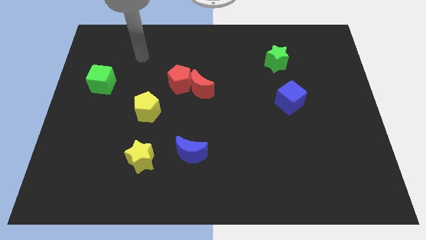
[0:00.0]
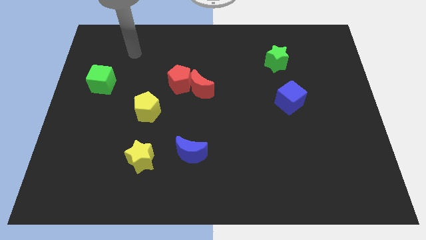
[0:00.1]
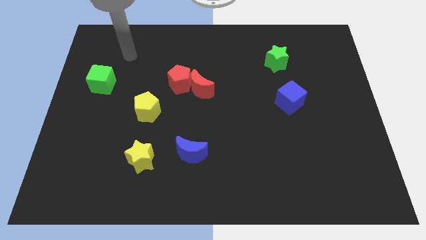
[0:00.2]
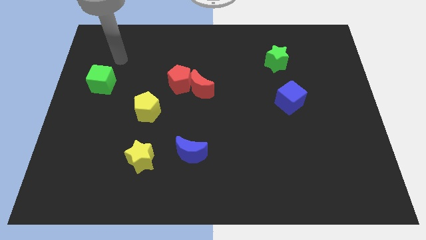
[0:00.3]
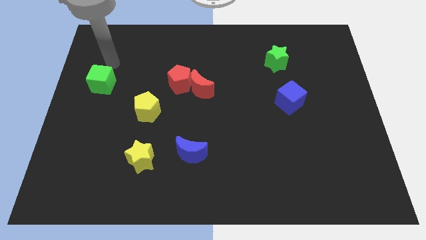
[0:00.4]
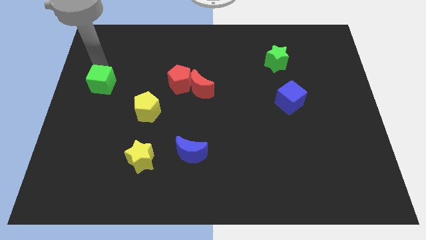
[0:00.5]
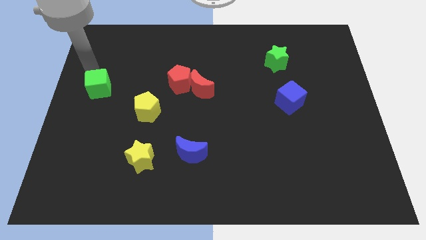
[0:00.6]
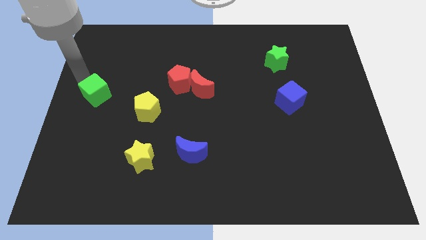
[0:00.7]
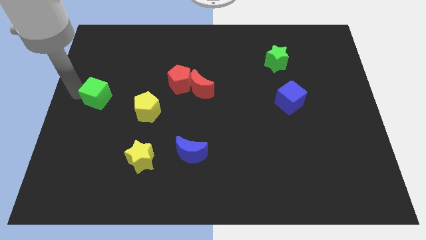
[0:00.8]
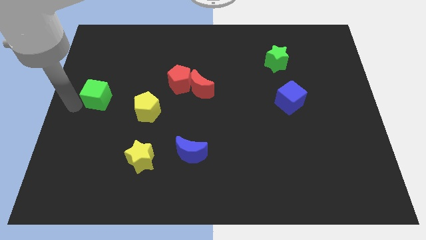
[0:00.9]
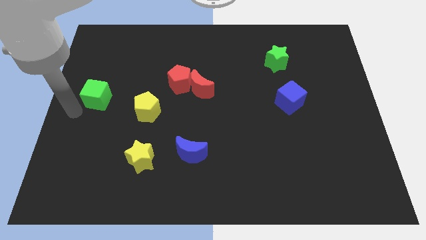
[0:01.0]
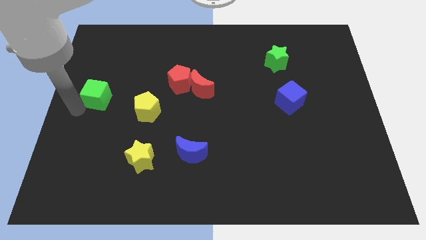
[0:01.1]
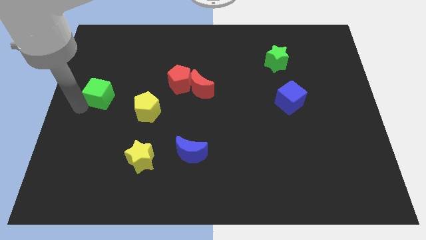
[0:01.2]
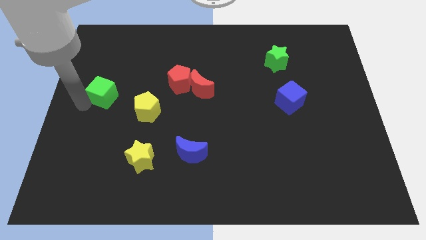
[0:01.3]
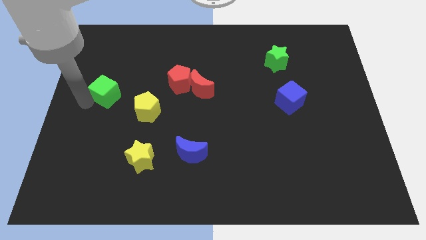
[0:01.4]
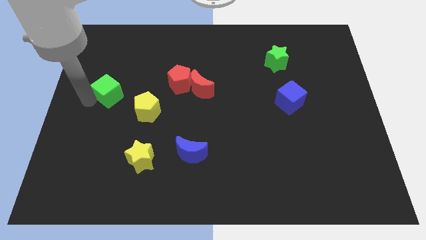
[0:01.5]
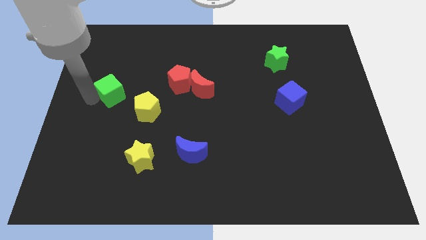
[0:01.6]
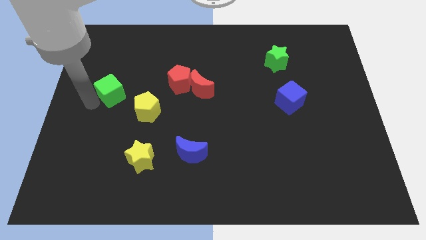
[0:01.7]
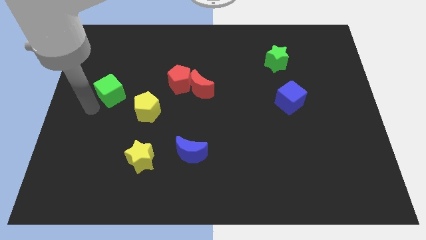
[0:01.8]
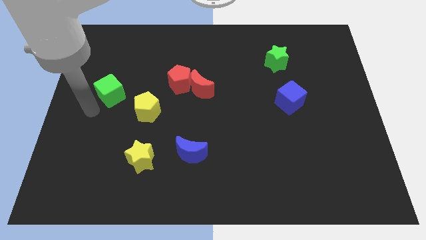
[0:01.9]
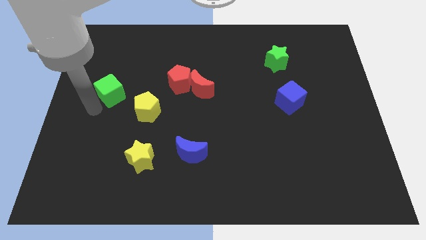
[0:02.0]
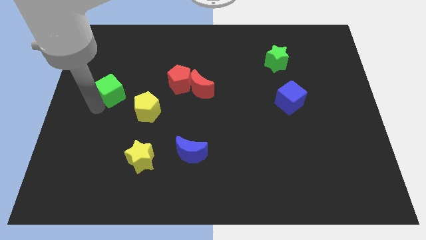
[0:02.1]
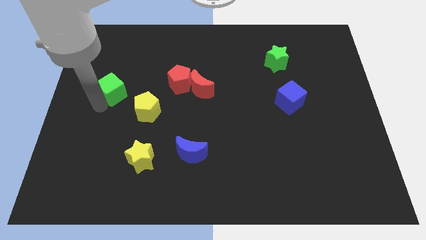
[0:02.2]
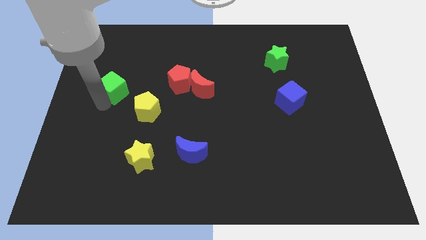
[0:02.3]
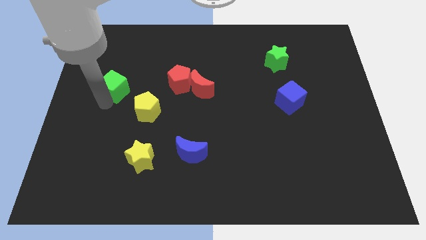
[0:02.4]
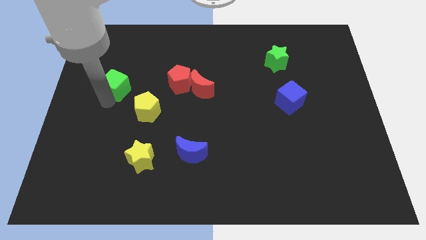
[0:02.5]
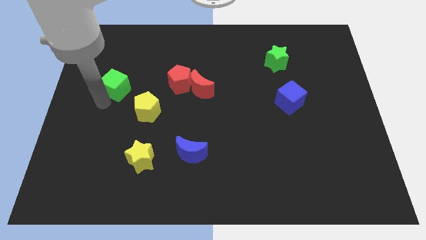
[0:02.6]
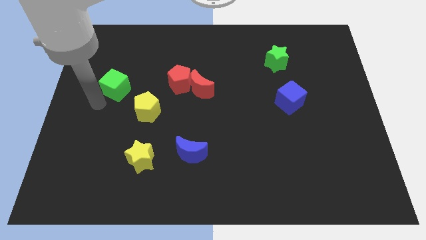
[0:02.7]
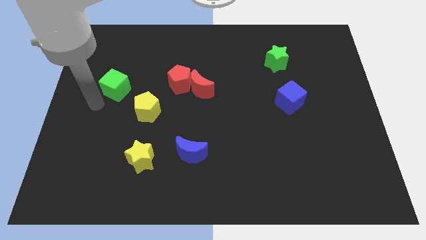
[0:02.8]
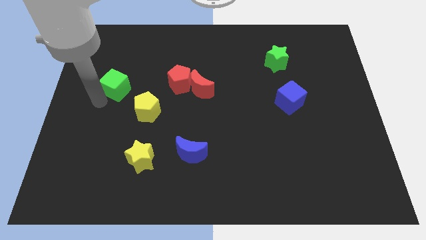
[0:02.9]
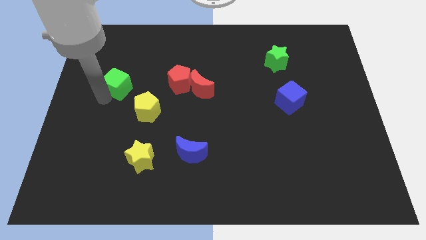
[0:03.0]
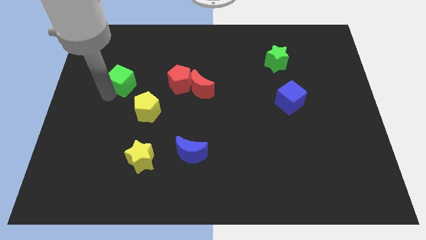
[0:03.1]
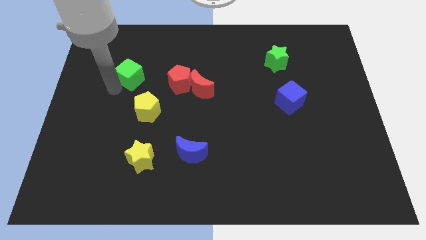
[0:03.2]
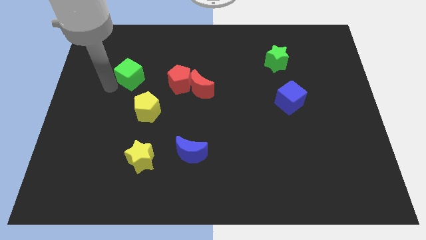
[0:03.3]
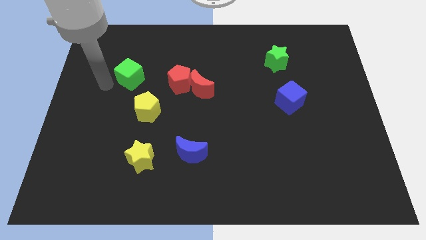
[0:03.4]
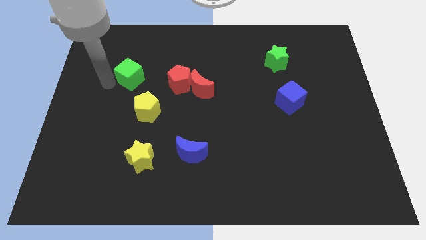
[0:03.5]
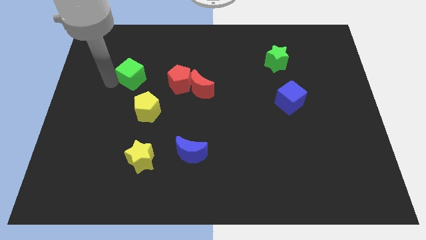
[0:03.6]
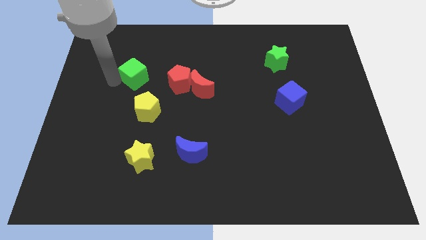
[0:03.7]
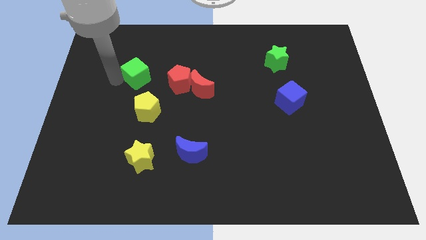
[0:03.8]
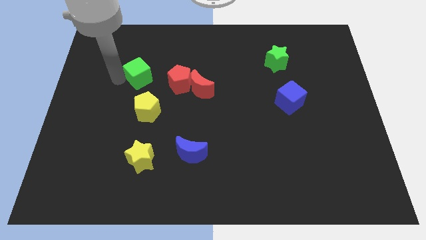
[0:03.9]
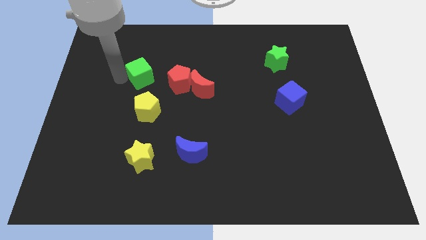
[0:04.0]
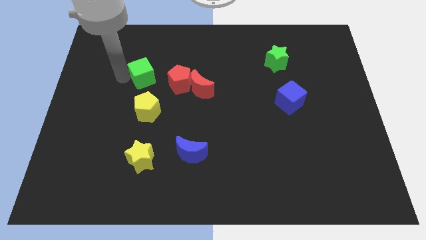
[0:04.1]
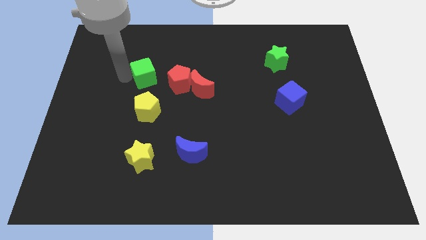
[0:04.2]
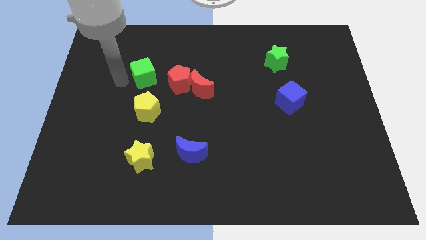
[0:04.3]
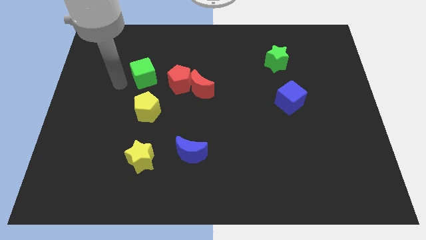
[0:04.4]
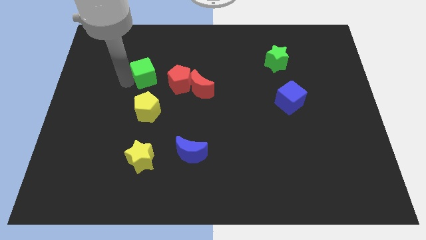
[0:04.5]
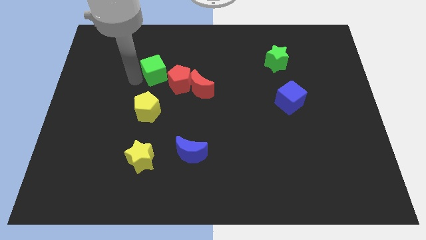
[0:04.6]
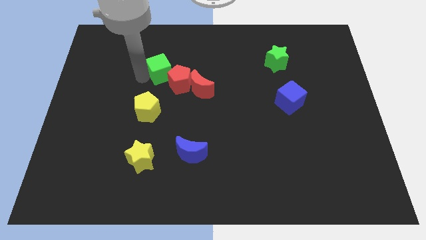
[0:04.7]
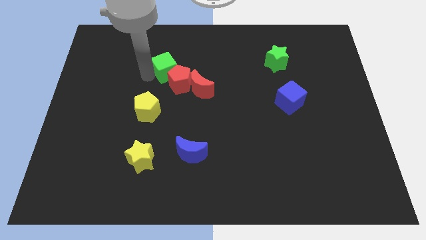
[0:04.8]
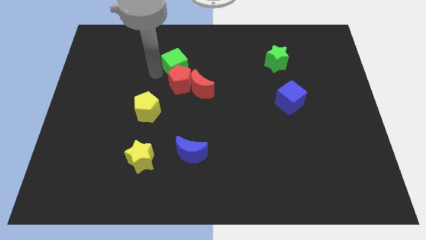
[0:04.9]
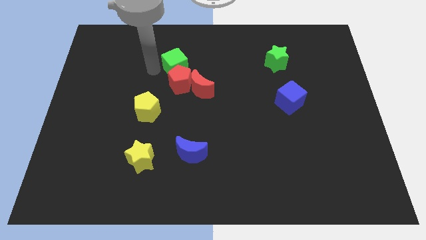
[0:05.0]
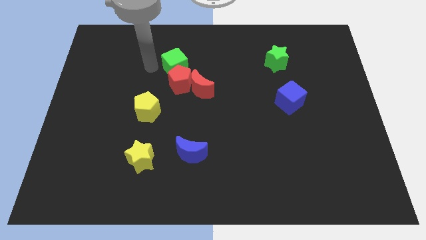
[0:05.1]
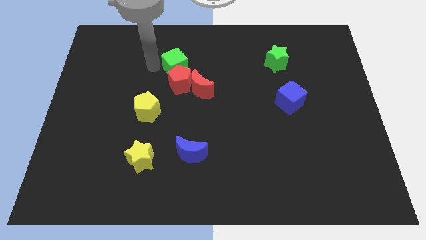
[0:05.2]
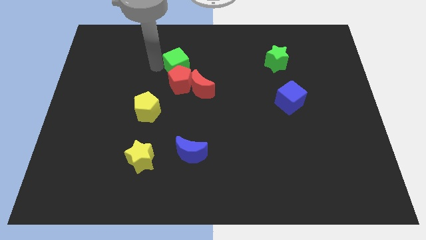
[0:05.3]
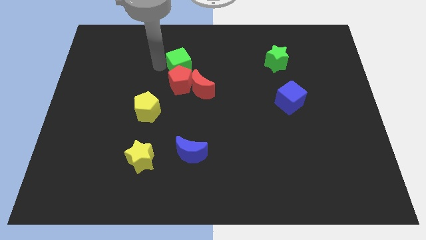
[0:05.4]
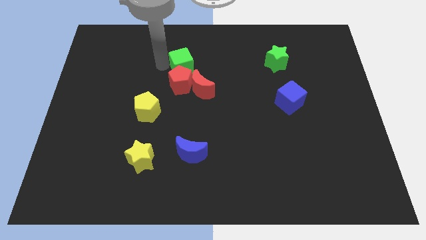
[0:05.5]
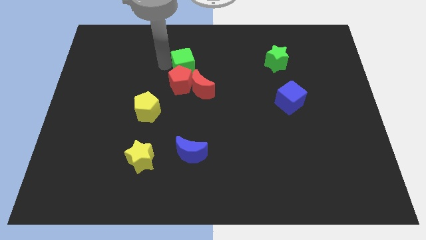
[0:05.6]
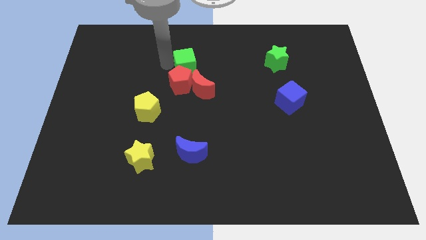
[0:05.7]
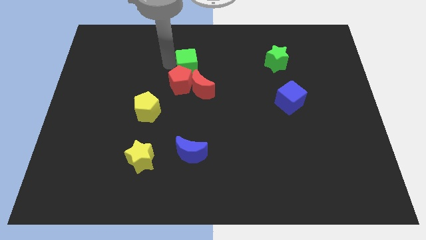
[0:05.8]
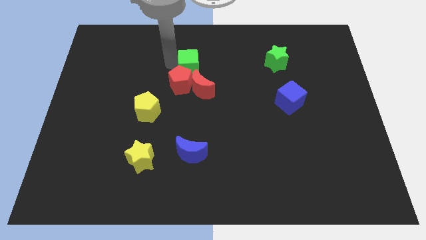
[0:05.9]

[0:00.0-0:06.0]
push the green cube to the right

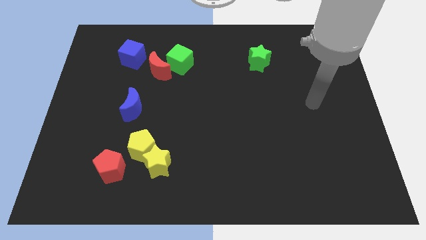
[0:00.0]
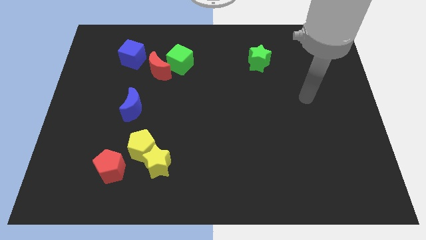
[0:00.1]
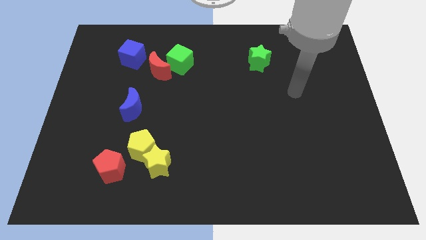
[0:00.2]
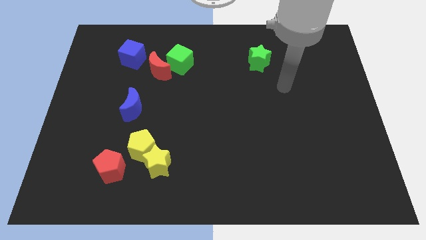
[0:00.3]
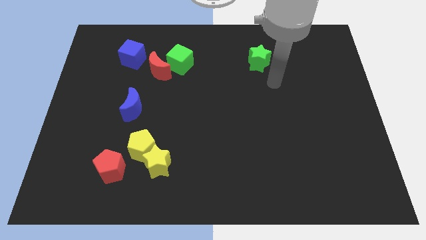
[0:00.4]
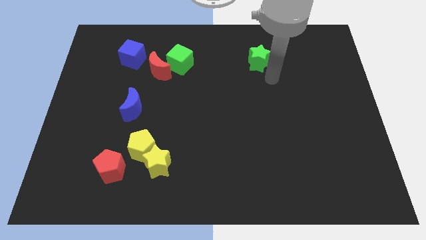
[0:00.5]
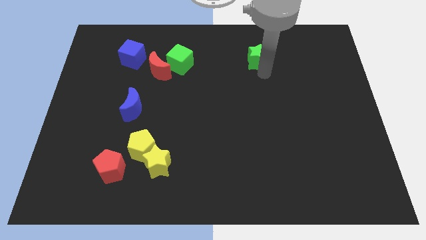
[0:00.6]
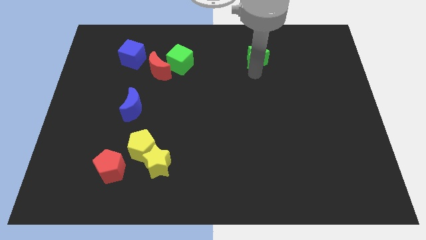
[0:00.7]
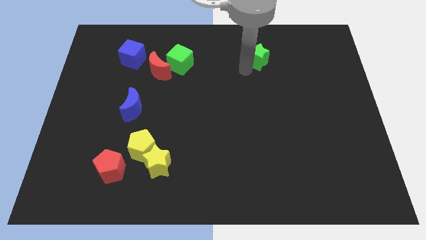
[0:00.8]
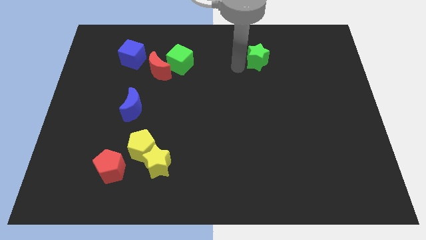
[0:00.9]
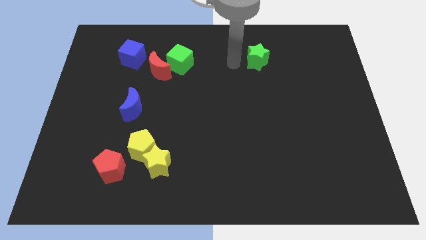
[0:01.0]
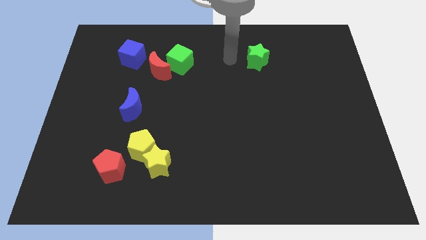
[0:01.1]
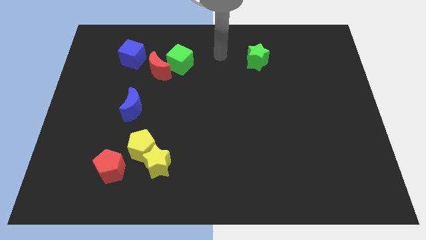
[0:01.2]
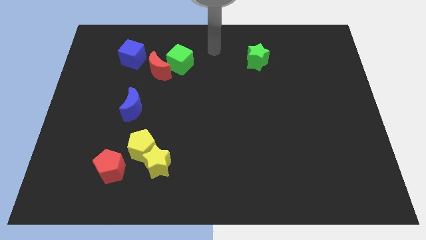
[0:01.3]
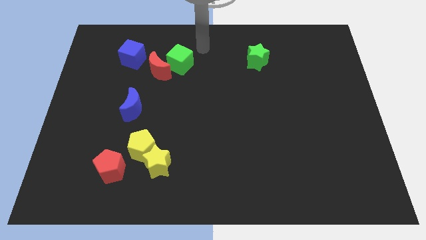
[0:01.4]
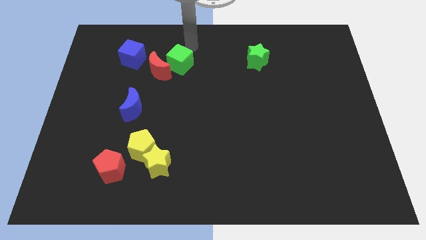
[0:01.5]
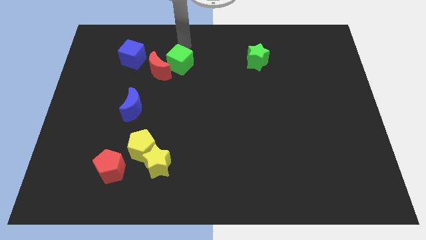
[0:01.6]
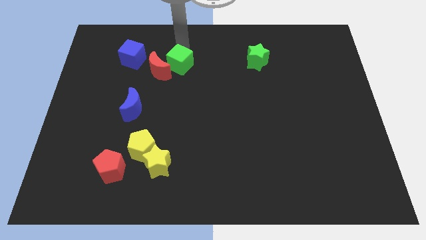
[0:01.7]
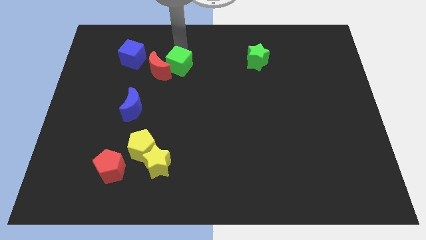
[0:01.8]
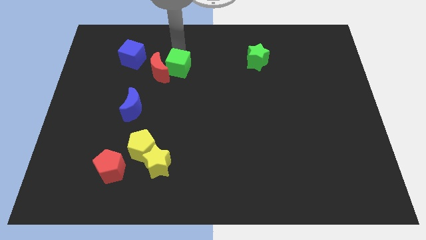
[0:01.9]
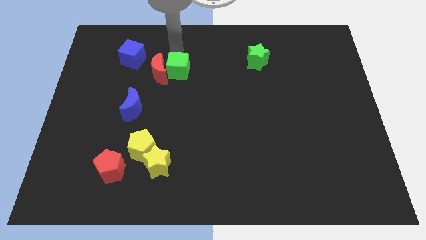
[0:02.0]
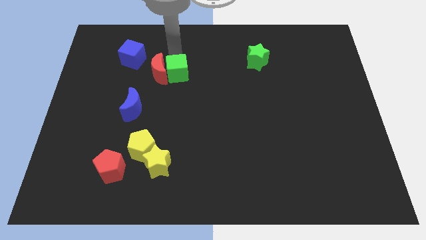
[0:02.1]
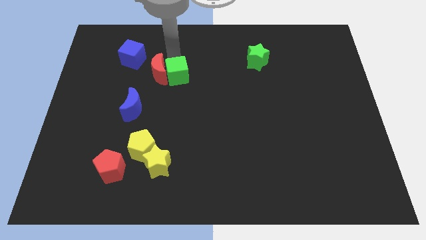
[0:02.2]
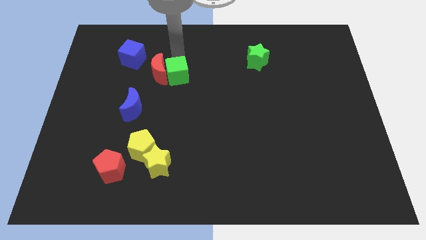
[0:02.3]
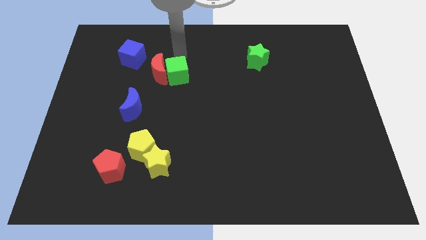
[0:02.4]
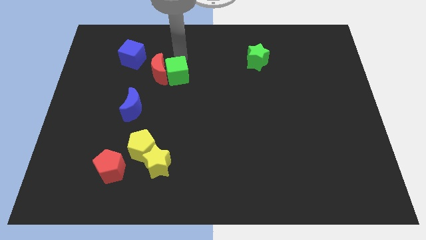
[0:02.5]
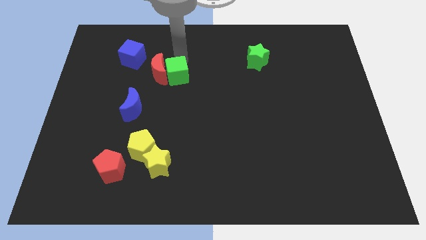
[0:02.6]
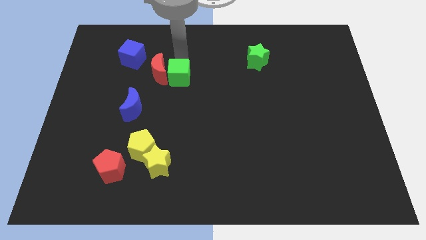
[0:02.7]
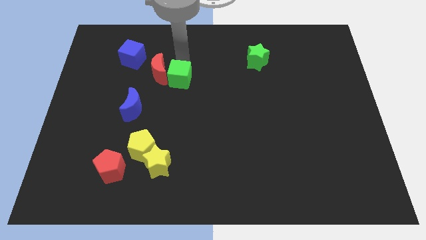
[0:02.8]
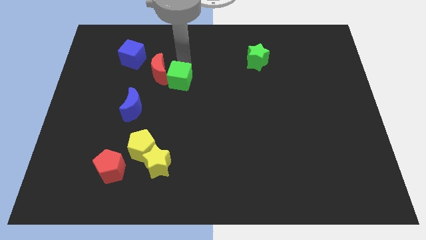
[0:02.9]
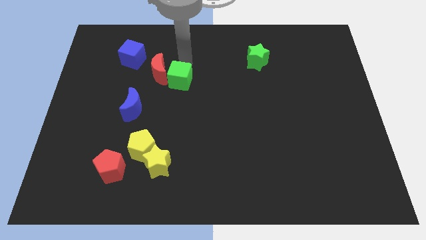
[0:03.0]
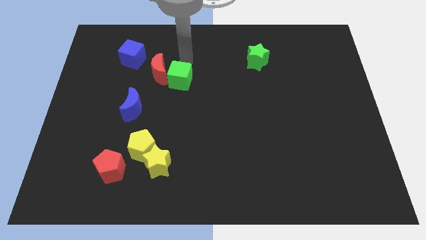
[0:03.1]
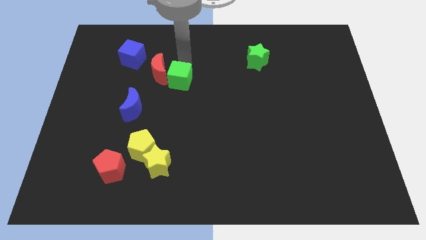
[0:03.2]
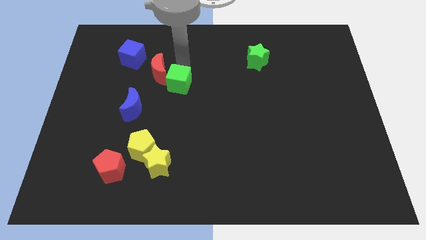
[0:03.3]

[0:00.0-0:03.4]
push the green cube down a bit
